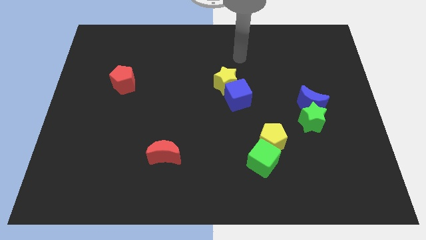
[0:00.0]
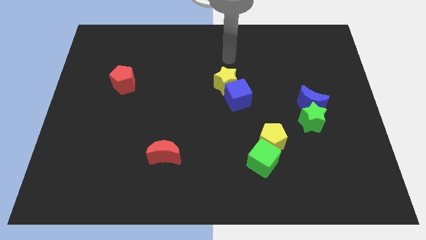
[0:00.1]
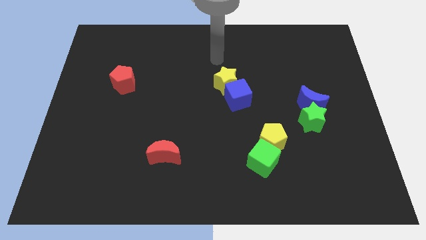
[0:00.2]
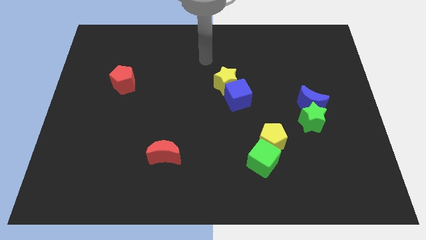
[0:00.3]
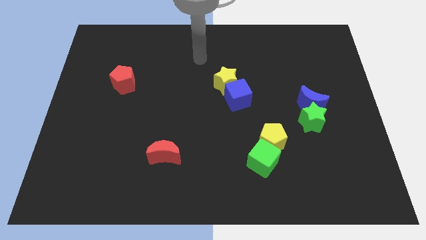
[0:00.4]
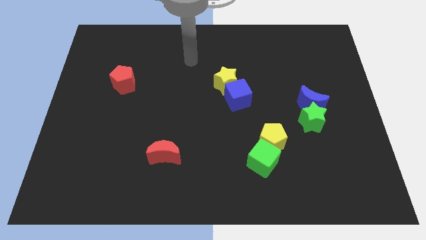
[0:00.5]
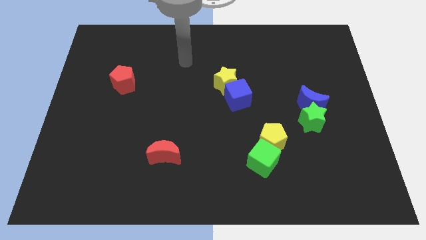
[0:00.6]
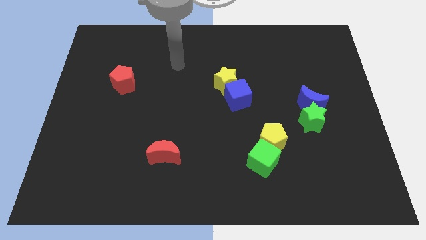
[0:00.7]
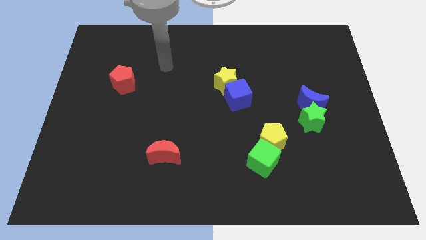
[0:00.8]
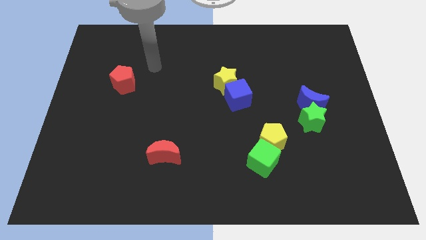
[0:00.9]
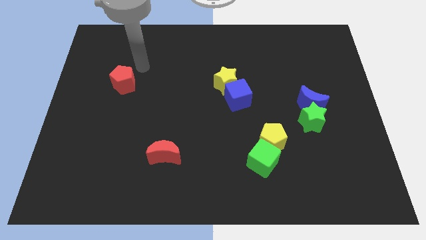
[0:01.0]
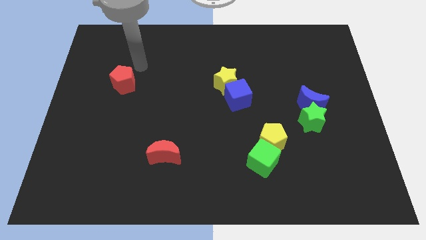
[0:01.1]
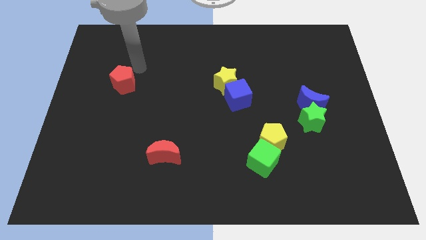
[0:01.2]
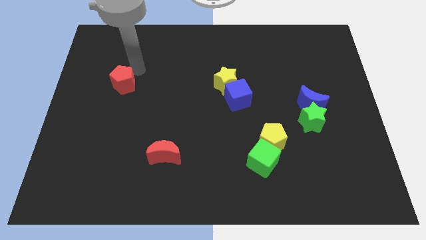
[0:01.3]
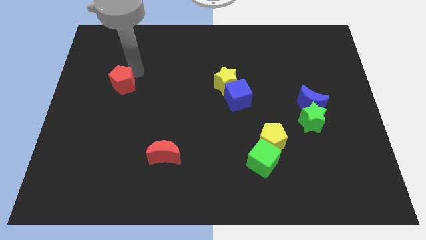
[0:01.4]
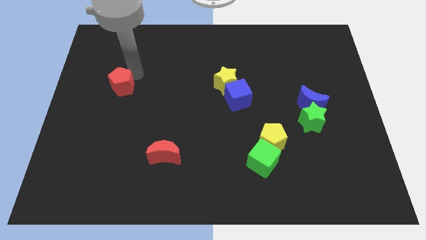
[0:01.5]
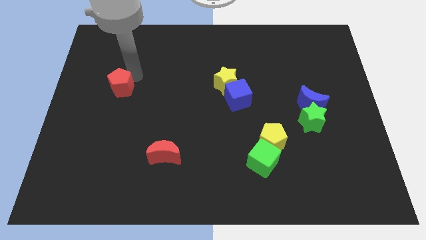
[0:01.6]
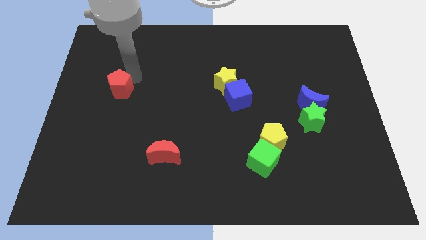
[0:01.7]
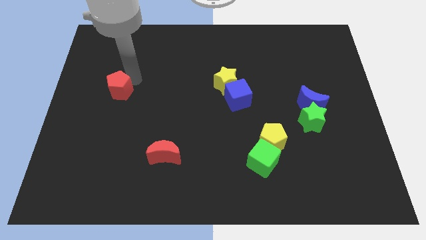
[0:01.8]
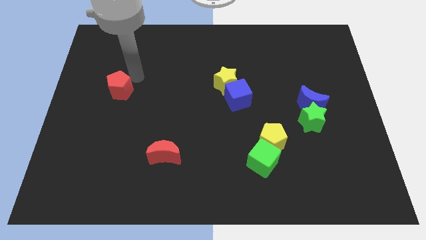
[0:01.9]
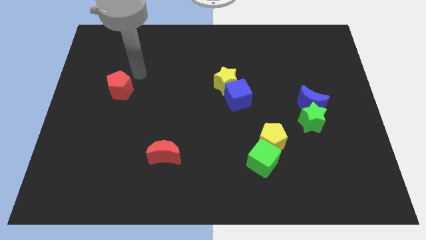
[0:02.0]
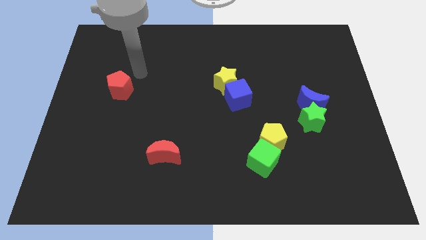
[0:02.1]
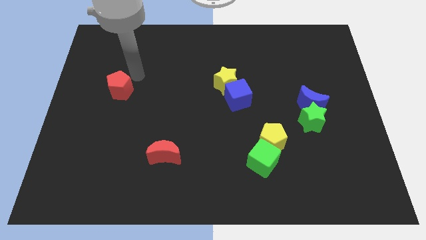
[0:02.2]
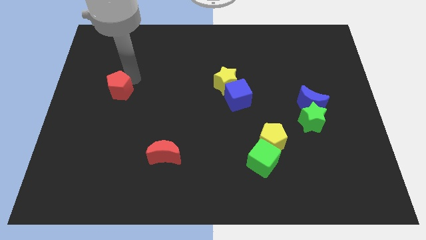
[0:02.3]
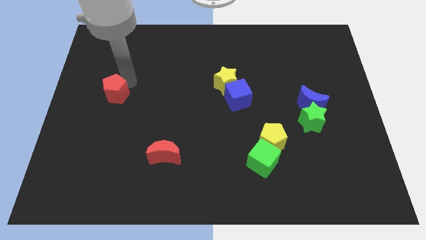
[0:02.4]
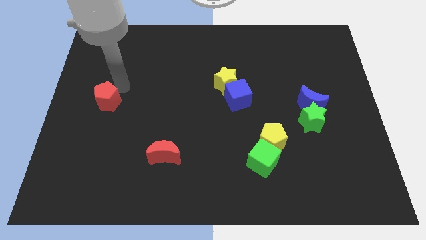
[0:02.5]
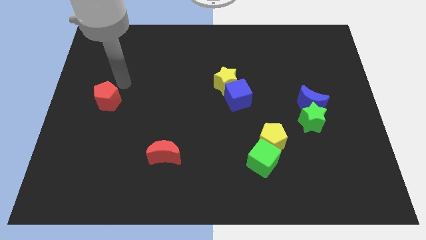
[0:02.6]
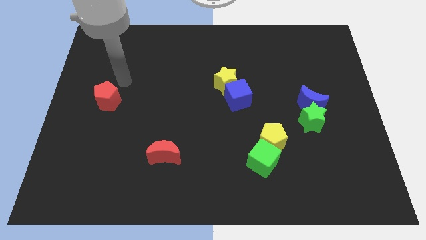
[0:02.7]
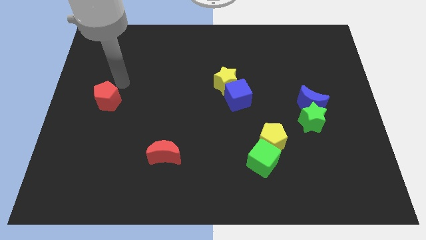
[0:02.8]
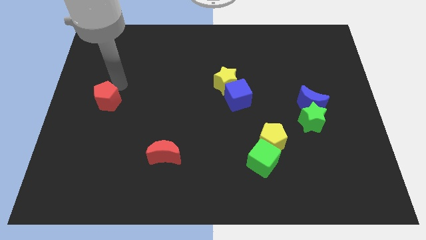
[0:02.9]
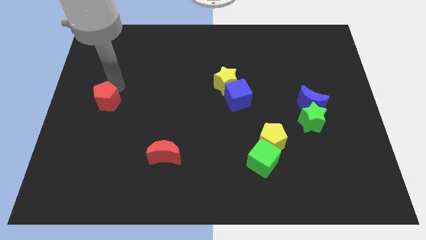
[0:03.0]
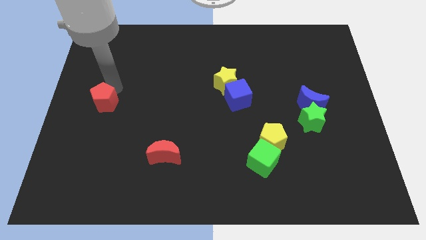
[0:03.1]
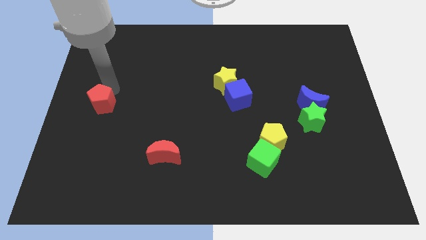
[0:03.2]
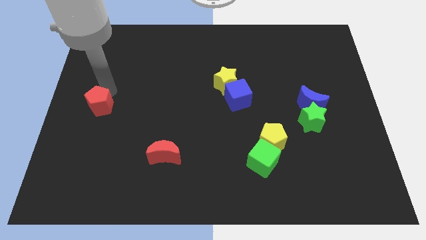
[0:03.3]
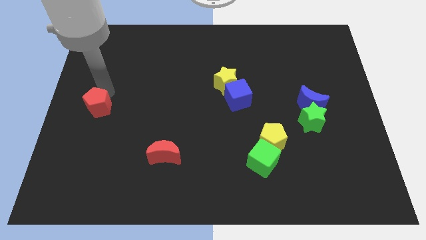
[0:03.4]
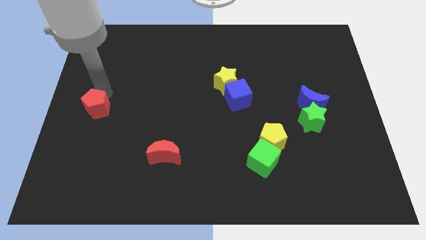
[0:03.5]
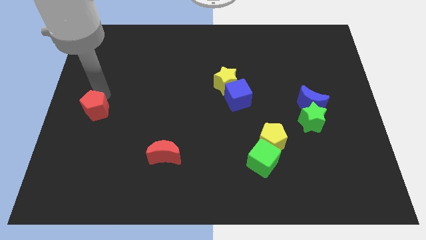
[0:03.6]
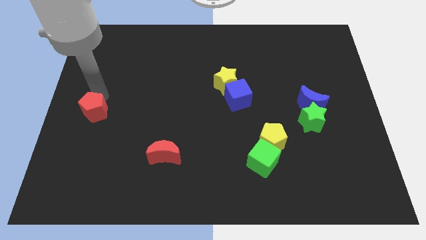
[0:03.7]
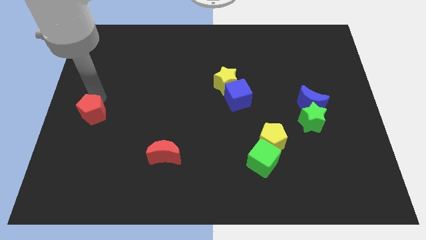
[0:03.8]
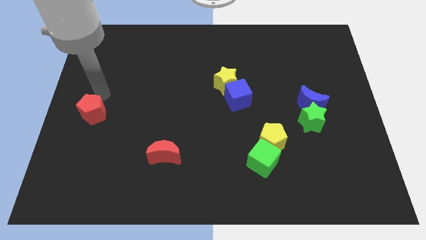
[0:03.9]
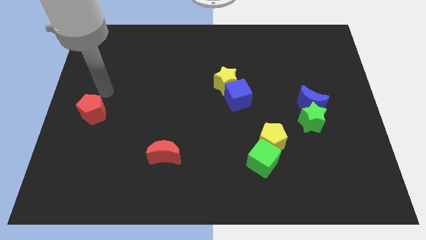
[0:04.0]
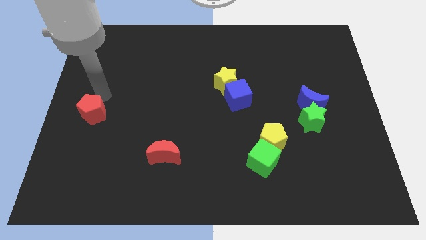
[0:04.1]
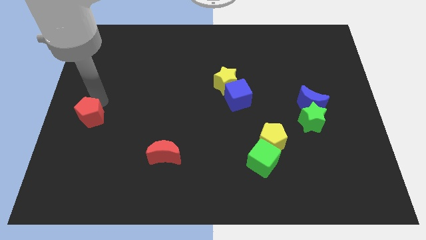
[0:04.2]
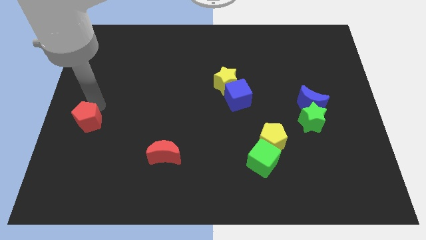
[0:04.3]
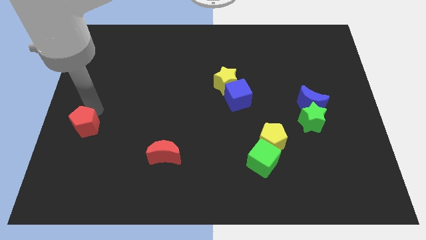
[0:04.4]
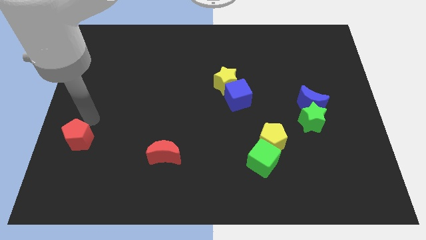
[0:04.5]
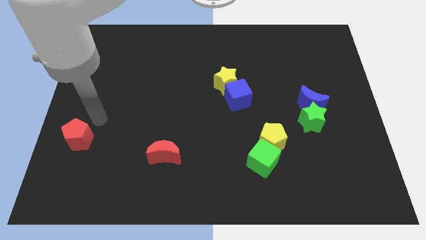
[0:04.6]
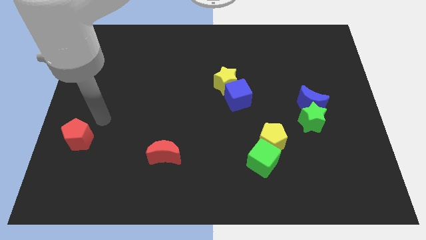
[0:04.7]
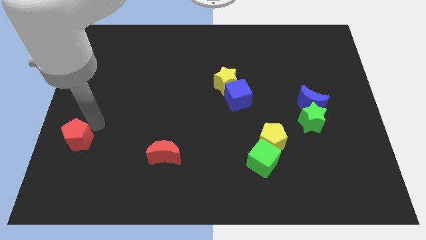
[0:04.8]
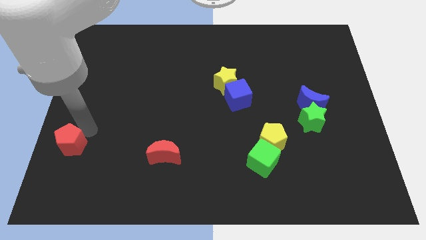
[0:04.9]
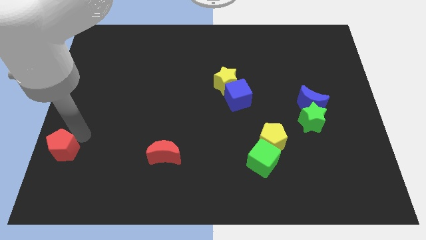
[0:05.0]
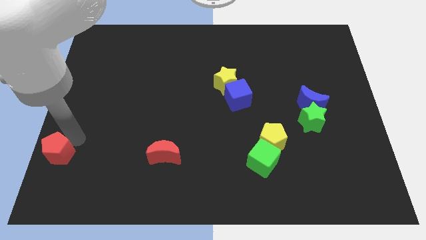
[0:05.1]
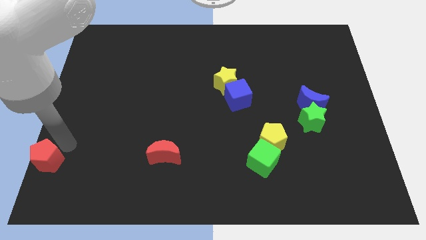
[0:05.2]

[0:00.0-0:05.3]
push the red pentagon to the bottom left of the board

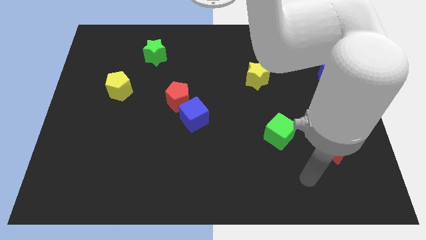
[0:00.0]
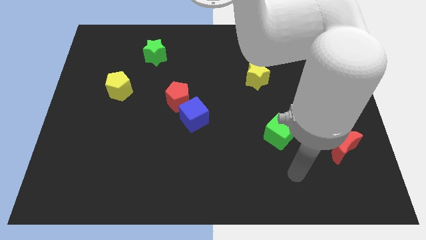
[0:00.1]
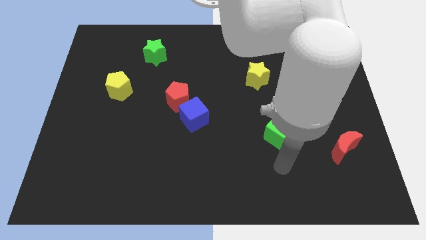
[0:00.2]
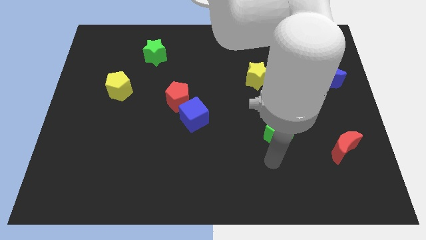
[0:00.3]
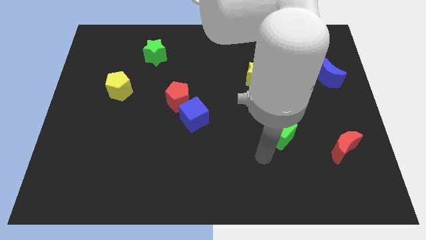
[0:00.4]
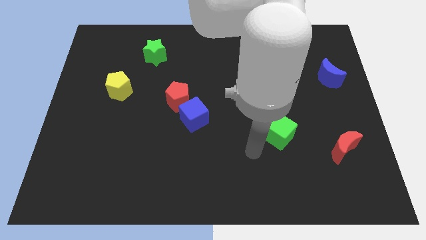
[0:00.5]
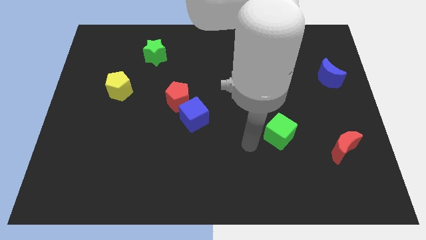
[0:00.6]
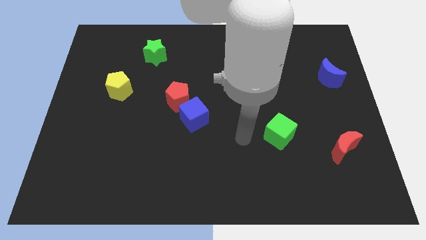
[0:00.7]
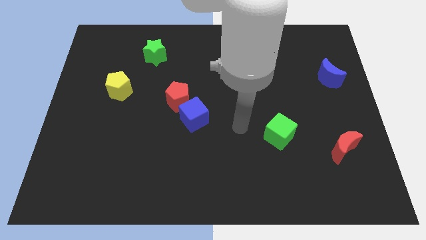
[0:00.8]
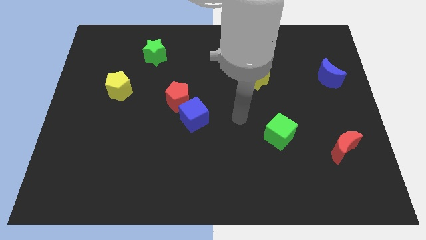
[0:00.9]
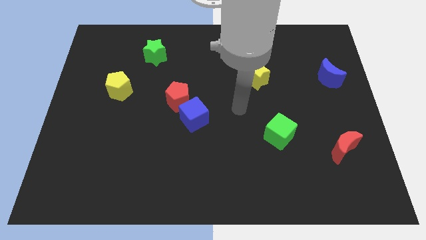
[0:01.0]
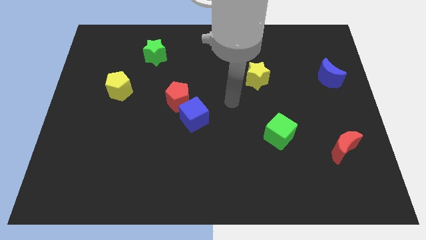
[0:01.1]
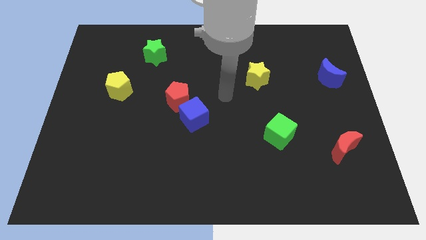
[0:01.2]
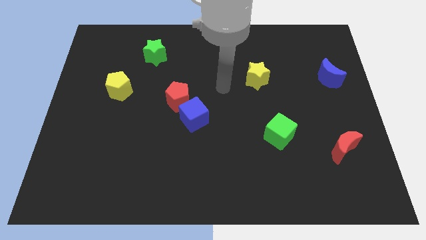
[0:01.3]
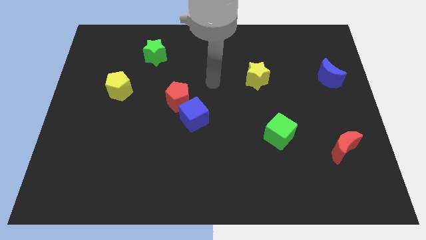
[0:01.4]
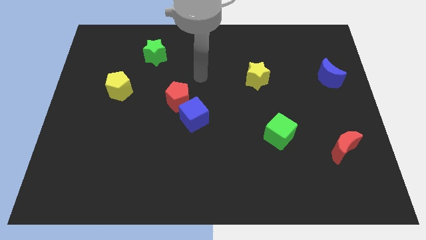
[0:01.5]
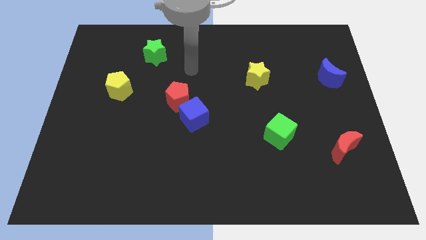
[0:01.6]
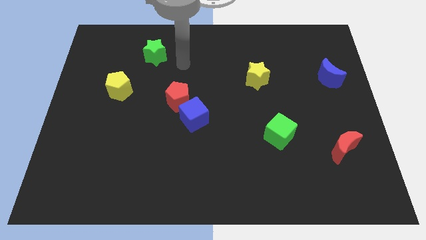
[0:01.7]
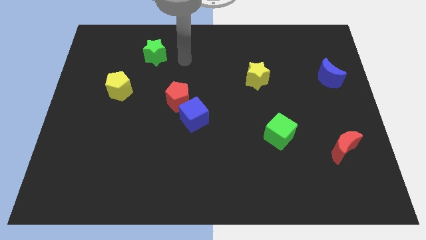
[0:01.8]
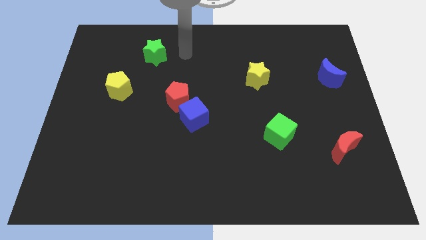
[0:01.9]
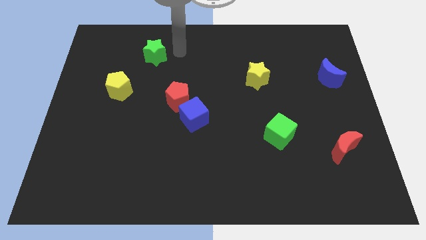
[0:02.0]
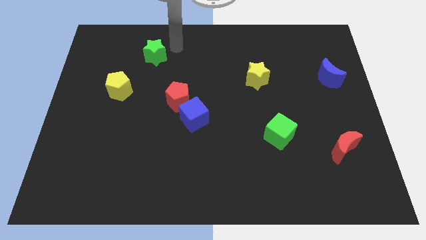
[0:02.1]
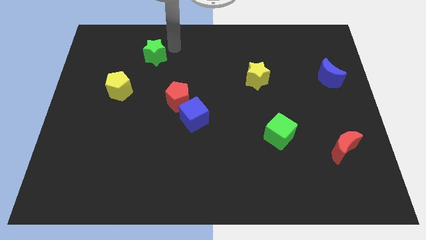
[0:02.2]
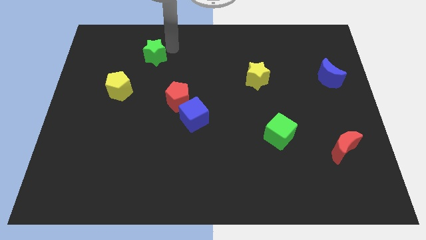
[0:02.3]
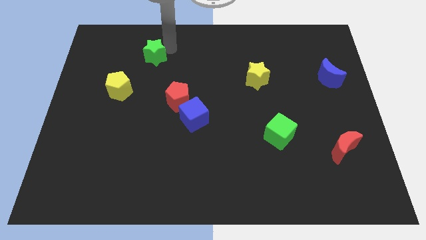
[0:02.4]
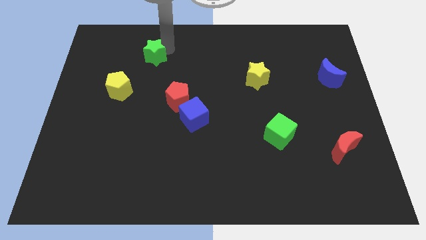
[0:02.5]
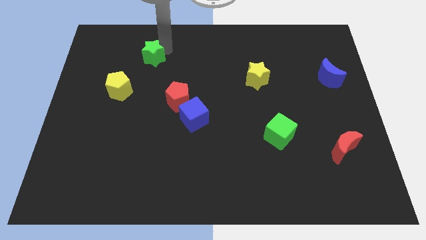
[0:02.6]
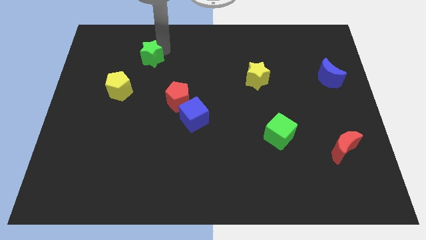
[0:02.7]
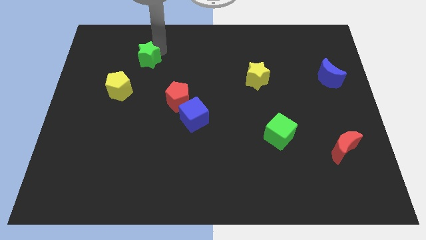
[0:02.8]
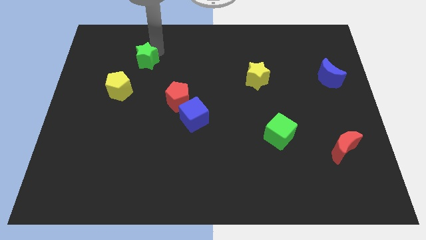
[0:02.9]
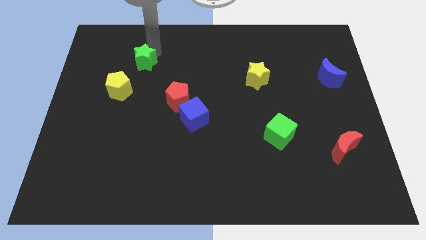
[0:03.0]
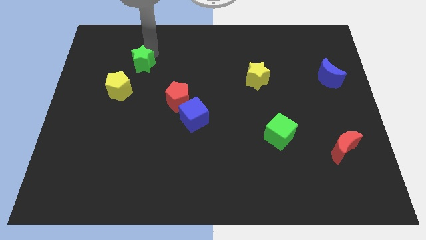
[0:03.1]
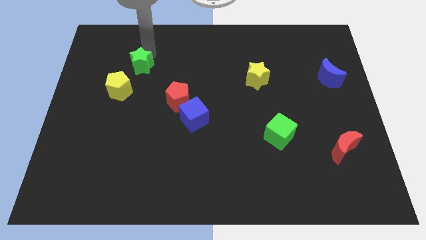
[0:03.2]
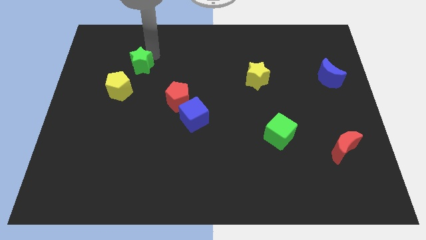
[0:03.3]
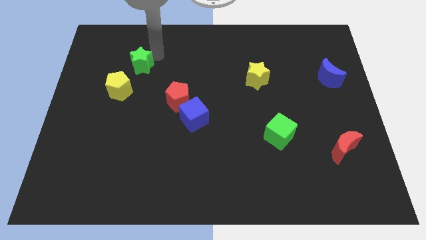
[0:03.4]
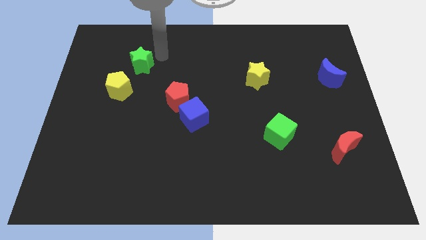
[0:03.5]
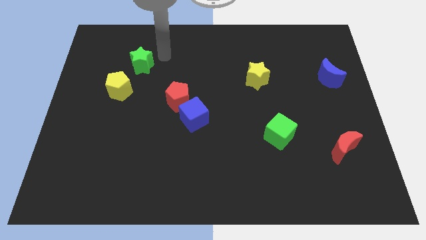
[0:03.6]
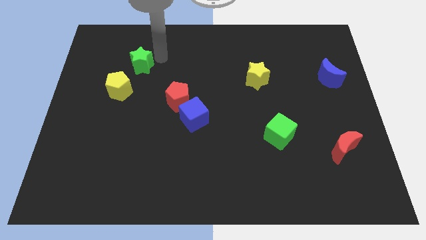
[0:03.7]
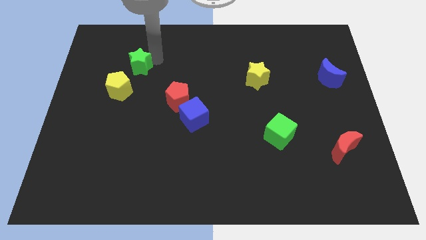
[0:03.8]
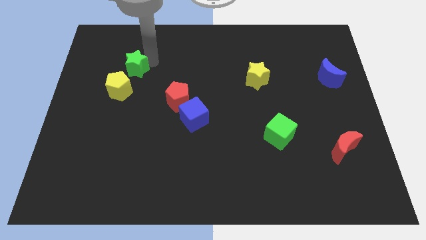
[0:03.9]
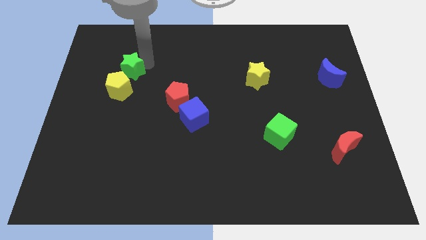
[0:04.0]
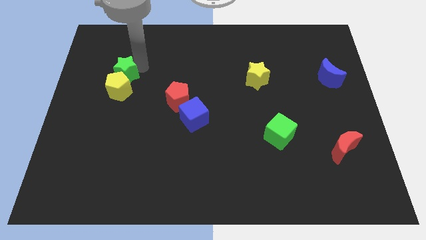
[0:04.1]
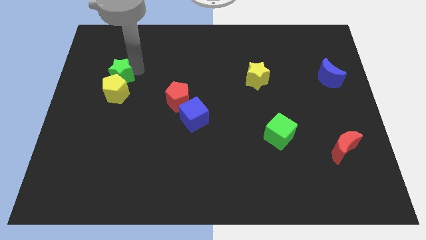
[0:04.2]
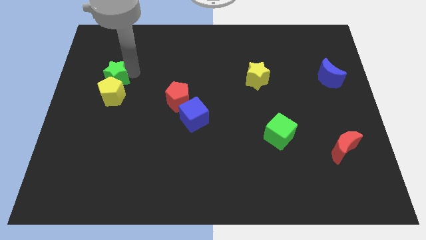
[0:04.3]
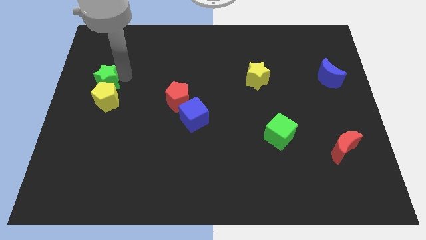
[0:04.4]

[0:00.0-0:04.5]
move the green star to the center left
